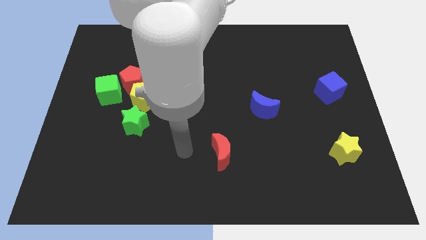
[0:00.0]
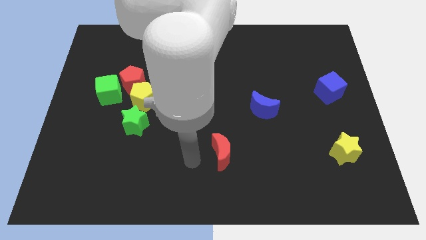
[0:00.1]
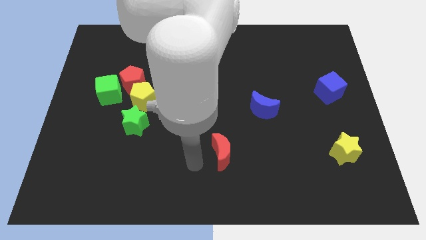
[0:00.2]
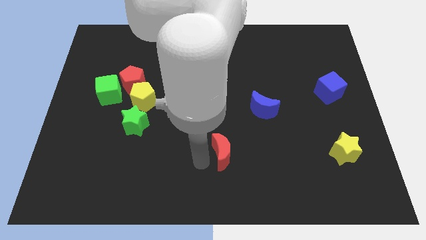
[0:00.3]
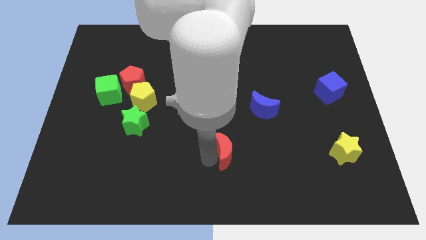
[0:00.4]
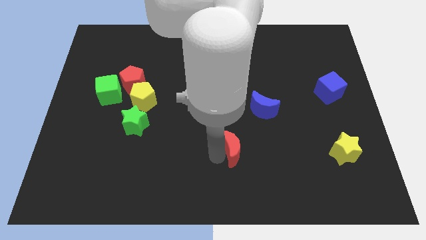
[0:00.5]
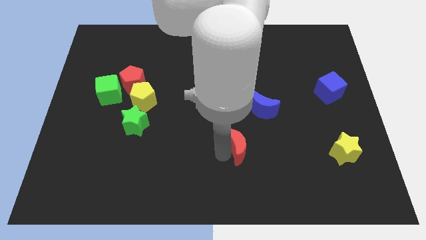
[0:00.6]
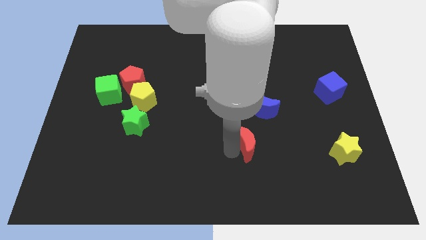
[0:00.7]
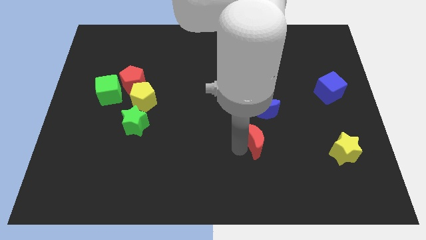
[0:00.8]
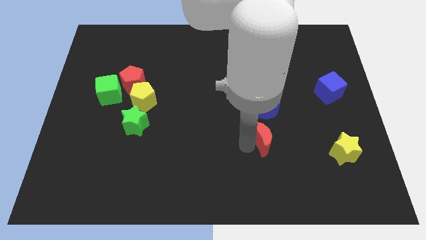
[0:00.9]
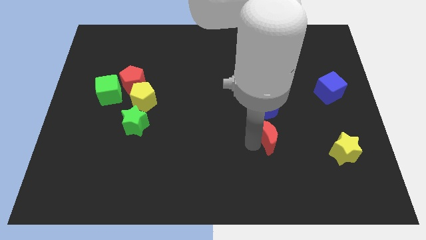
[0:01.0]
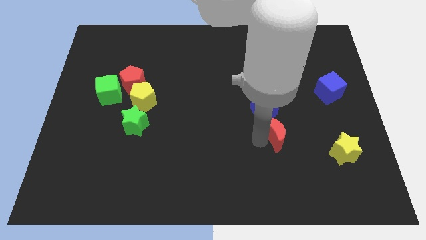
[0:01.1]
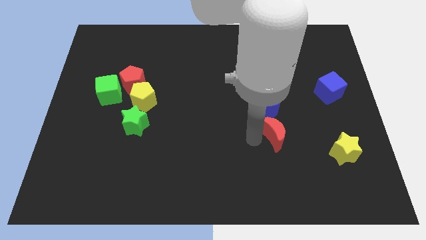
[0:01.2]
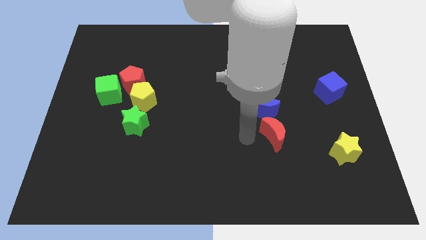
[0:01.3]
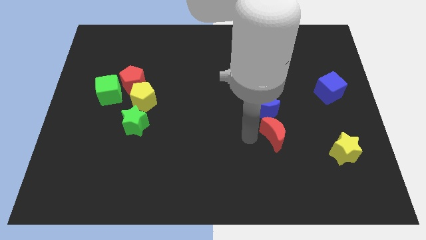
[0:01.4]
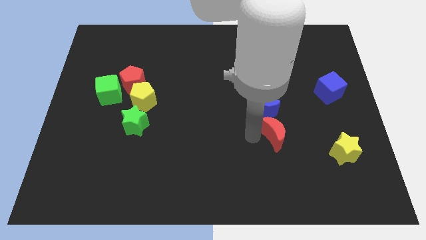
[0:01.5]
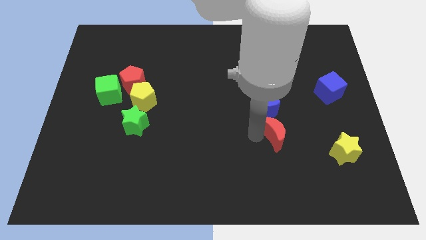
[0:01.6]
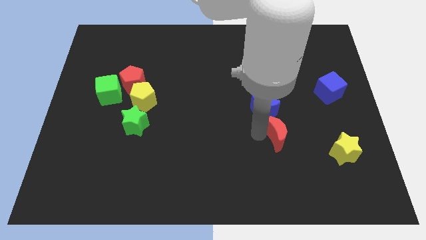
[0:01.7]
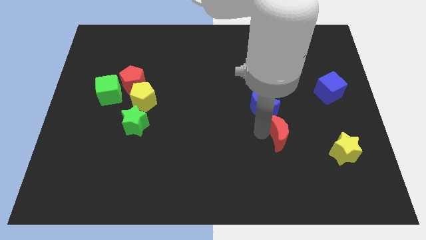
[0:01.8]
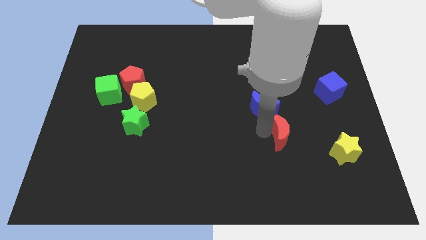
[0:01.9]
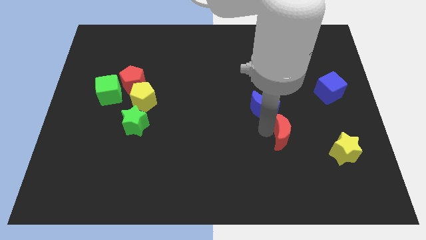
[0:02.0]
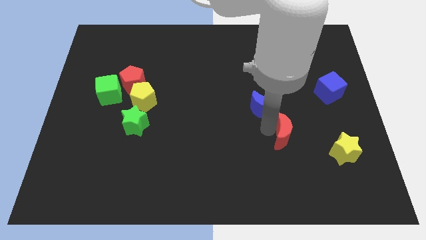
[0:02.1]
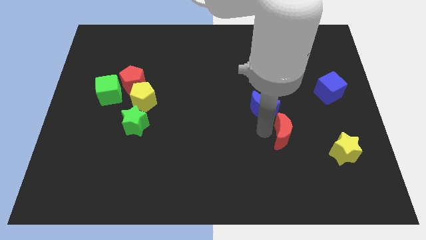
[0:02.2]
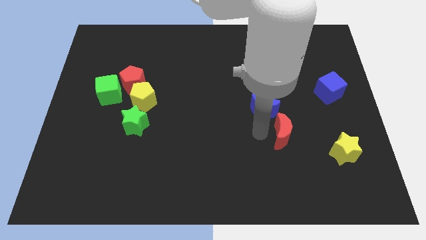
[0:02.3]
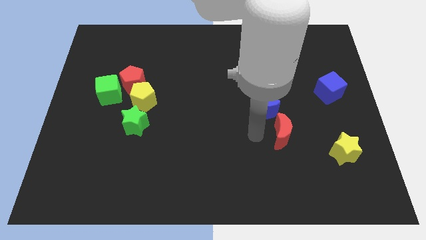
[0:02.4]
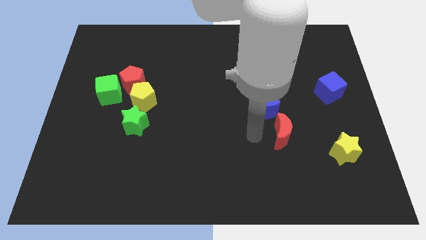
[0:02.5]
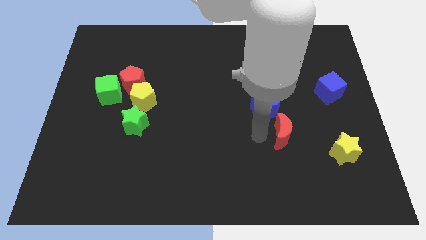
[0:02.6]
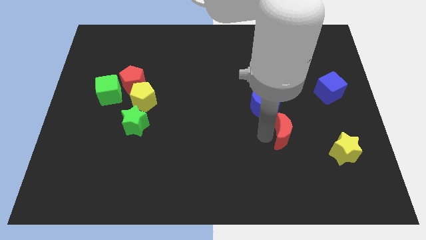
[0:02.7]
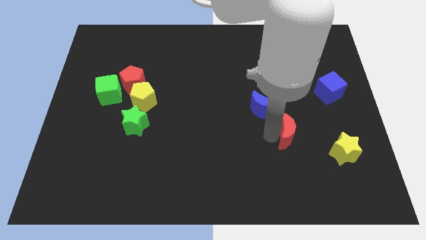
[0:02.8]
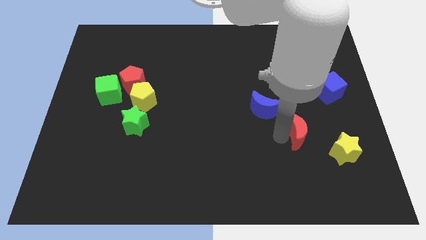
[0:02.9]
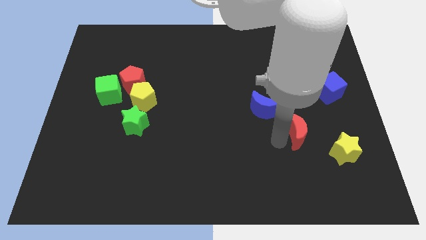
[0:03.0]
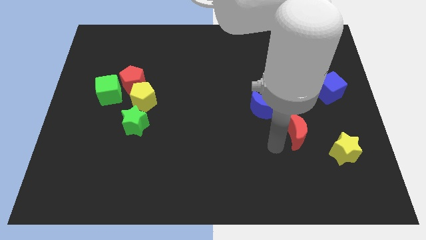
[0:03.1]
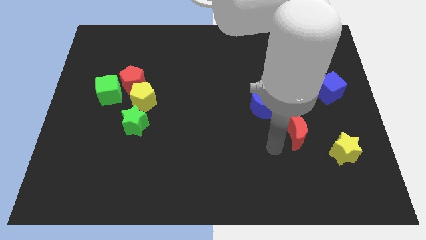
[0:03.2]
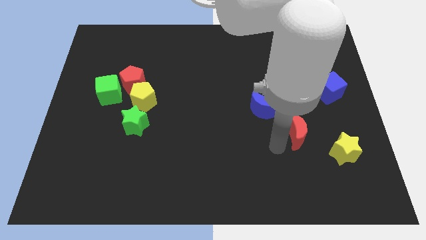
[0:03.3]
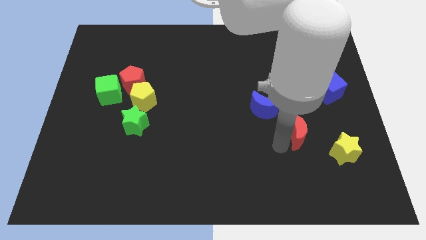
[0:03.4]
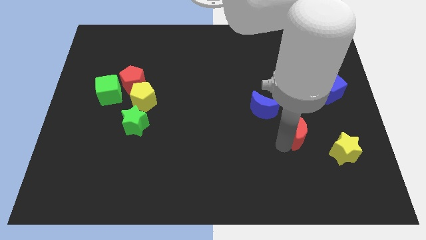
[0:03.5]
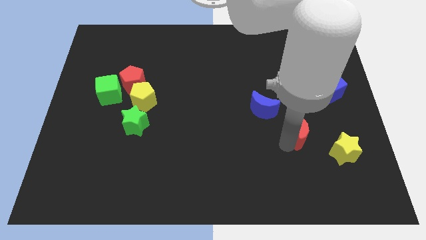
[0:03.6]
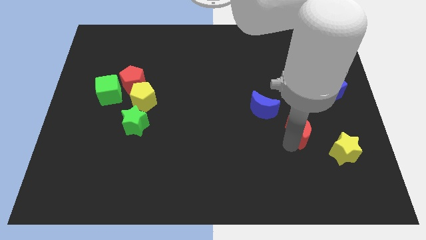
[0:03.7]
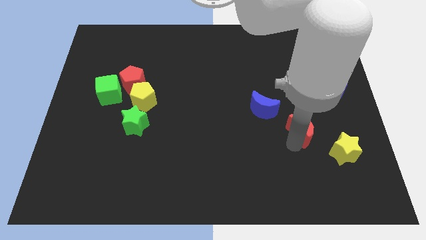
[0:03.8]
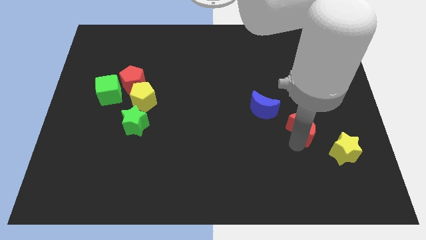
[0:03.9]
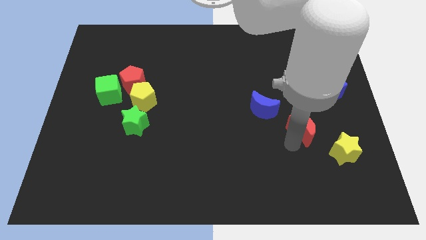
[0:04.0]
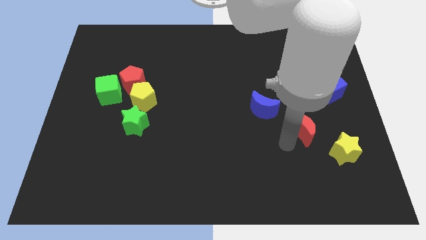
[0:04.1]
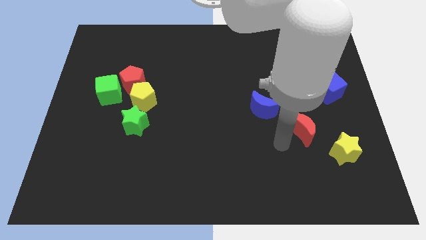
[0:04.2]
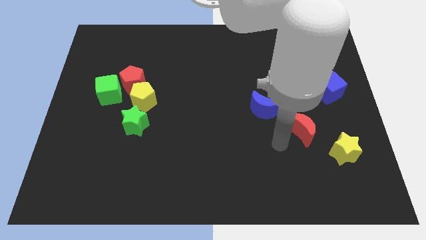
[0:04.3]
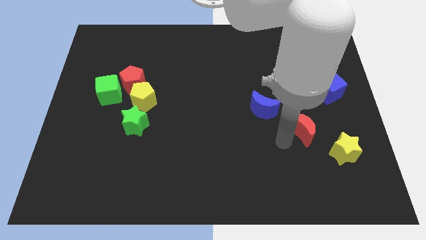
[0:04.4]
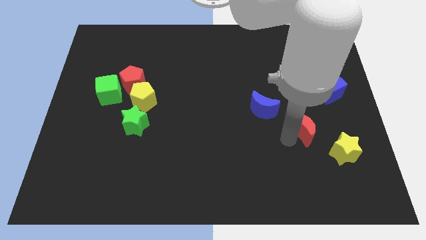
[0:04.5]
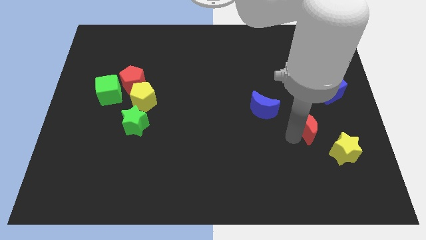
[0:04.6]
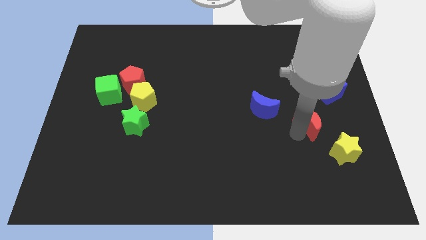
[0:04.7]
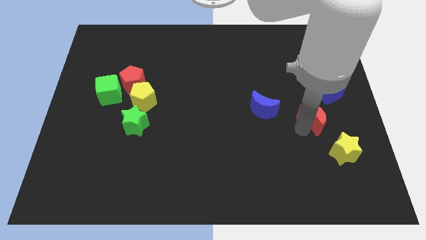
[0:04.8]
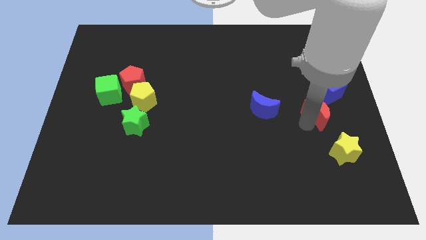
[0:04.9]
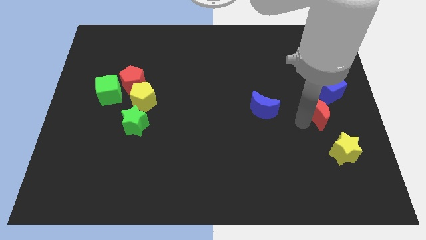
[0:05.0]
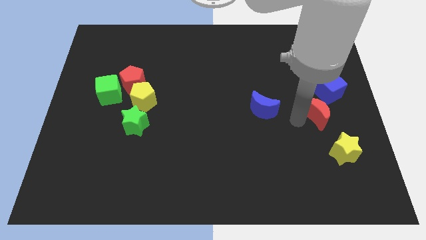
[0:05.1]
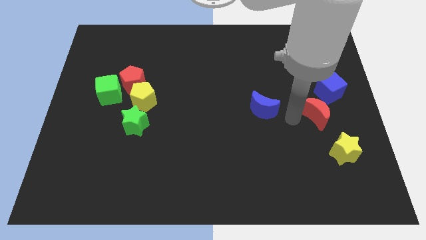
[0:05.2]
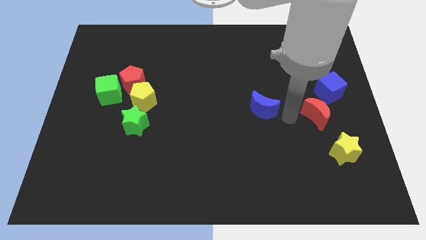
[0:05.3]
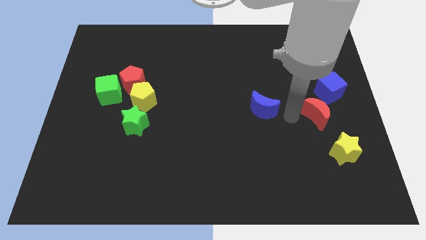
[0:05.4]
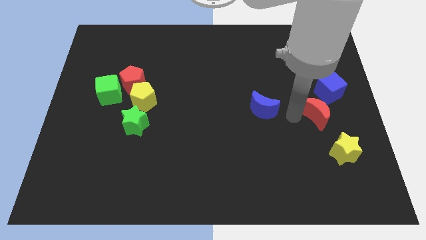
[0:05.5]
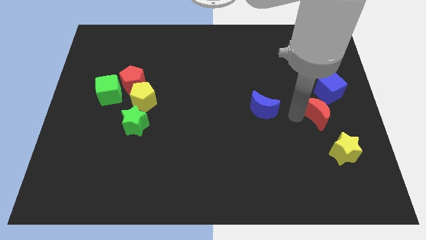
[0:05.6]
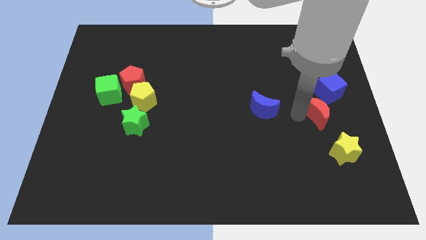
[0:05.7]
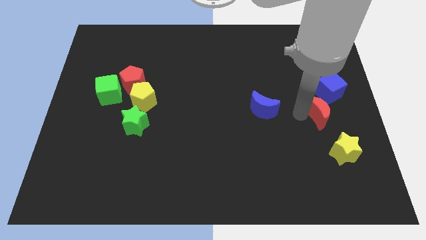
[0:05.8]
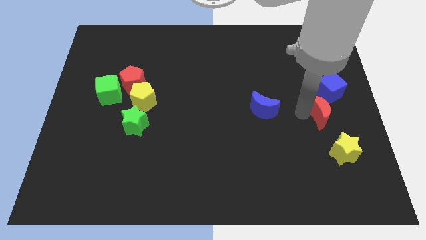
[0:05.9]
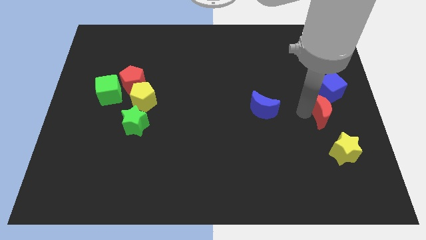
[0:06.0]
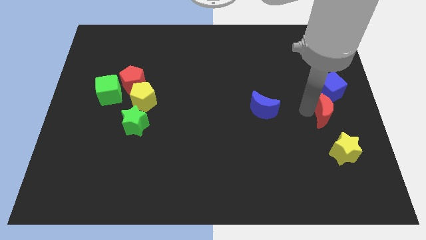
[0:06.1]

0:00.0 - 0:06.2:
put the red moon to the right side

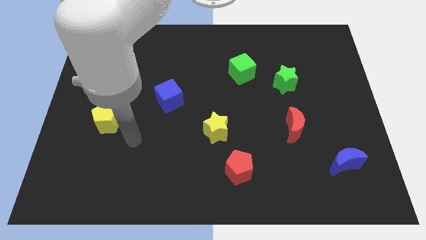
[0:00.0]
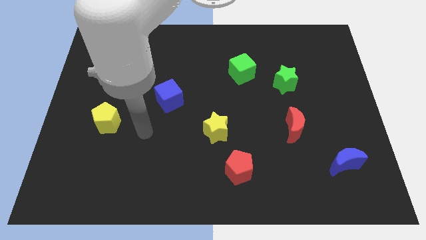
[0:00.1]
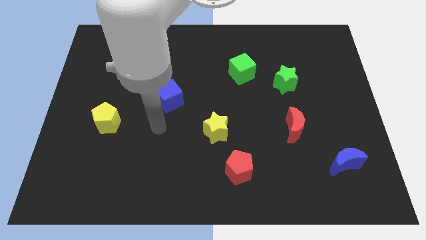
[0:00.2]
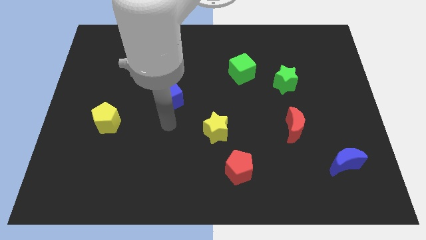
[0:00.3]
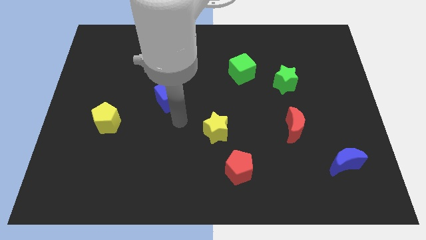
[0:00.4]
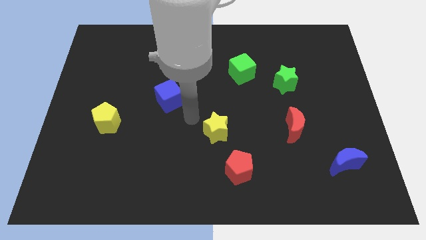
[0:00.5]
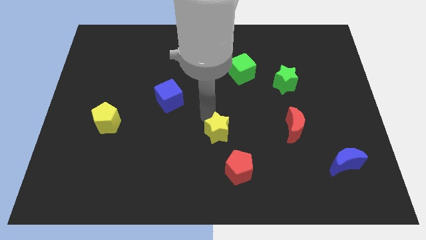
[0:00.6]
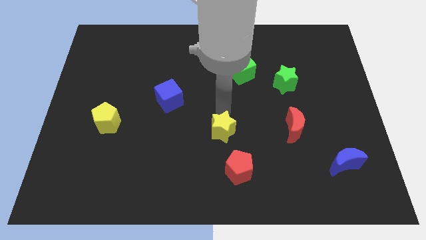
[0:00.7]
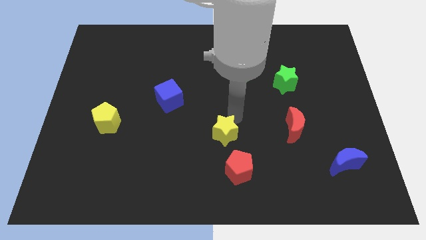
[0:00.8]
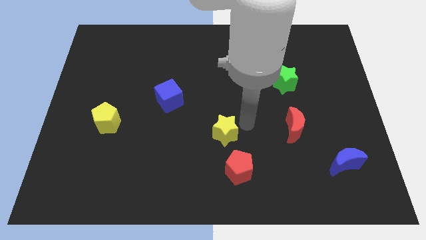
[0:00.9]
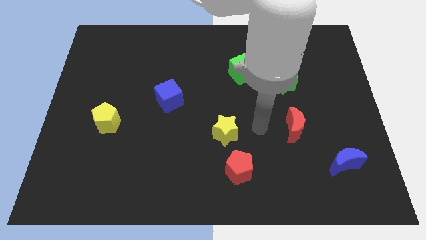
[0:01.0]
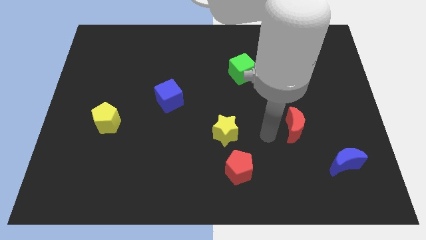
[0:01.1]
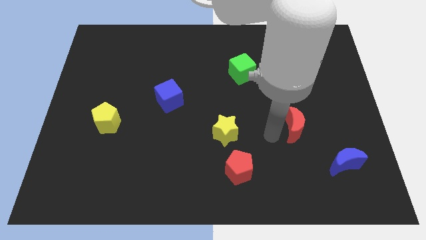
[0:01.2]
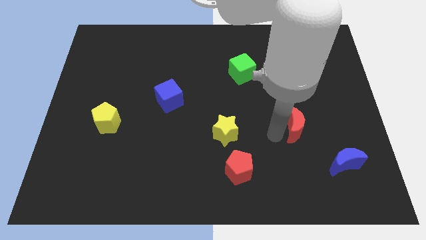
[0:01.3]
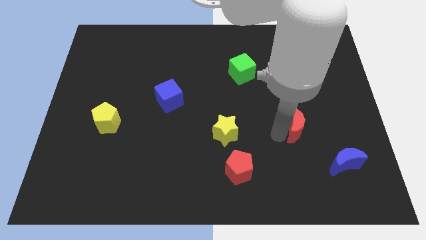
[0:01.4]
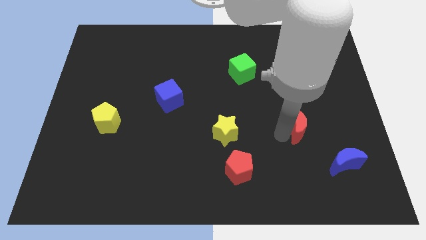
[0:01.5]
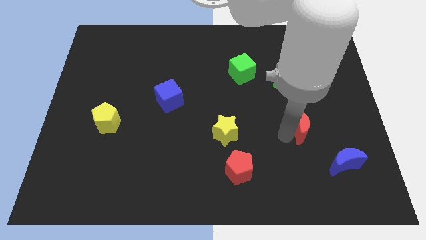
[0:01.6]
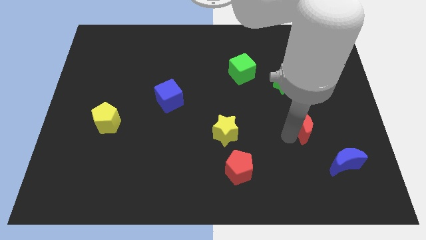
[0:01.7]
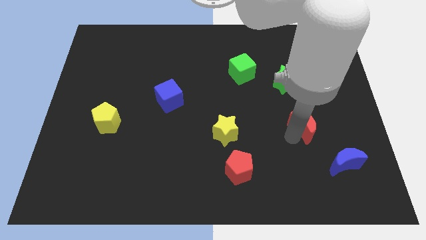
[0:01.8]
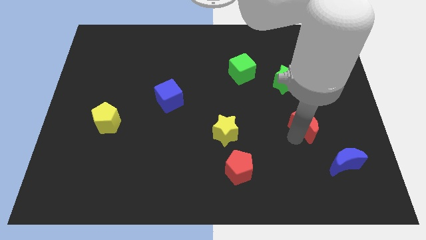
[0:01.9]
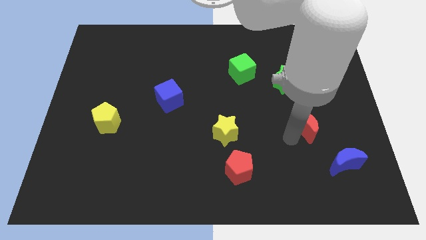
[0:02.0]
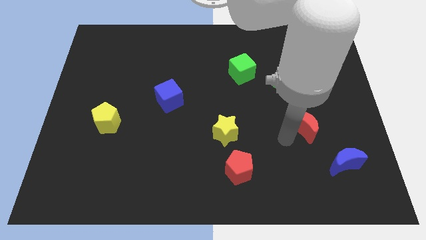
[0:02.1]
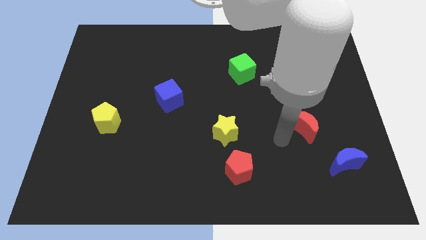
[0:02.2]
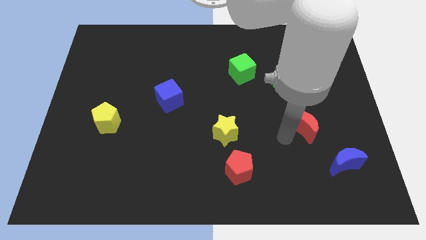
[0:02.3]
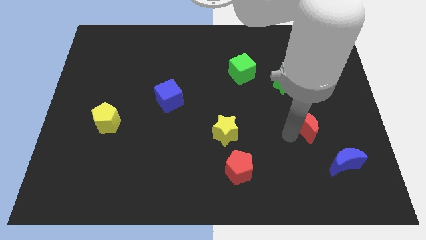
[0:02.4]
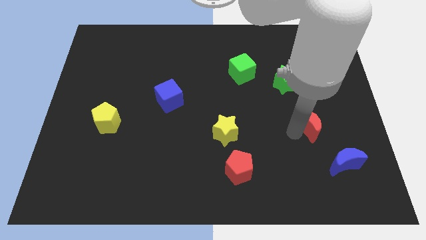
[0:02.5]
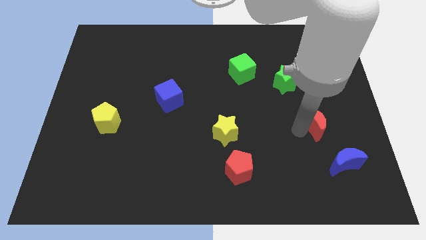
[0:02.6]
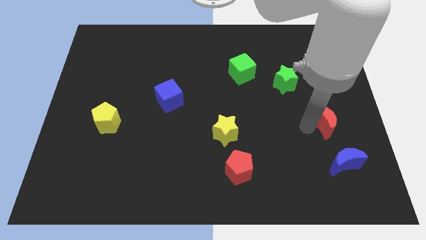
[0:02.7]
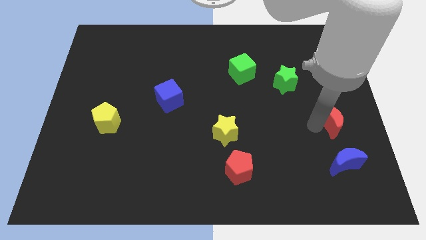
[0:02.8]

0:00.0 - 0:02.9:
move the red moon to the right side of the board
